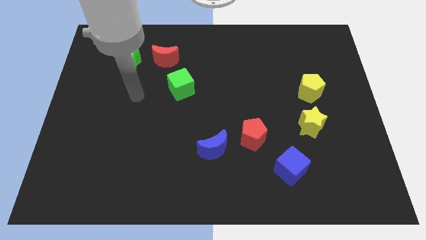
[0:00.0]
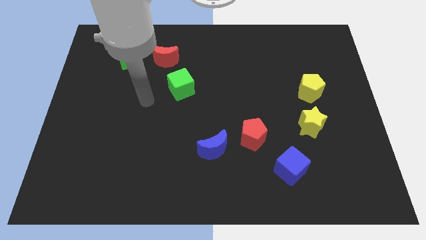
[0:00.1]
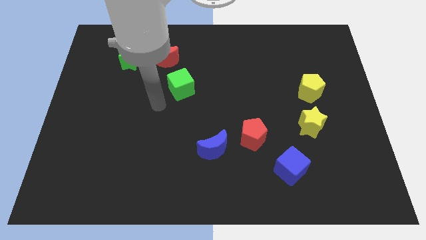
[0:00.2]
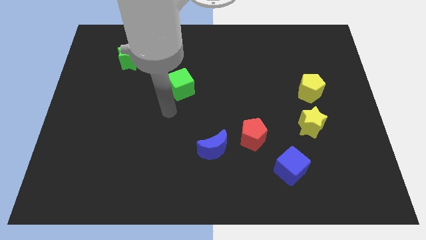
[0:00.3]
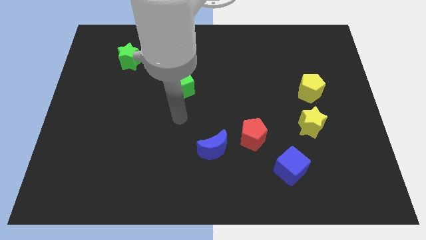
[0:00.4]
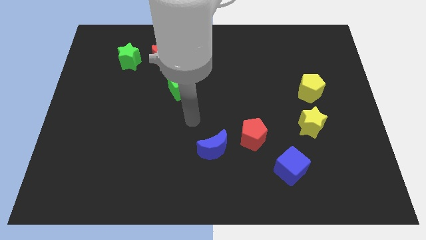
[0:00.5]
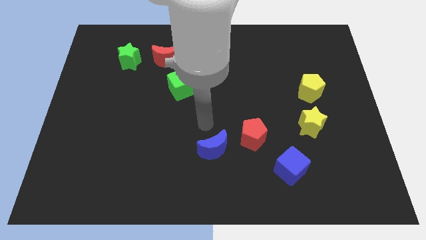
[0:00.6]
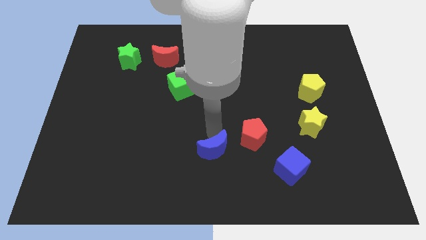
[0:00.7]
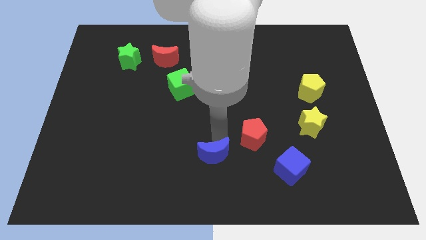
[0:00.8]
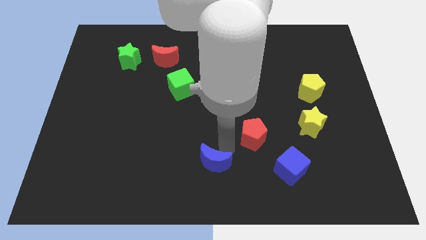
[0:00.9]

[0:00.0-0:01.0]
separate the red pentagon from the blue moon

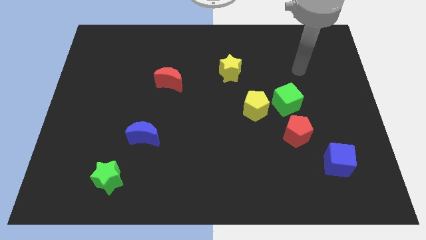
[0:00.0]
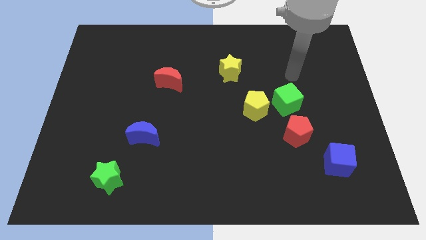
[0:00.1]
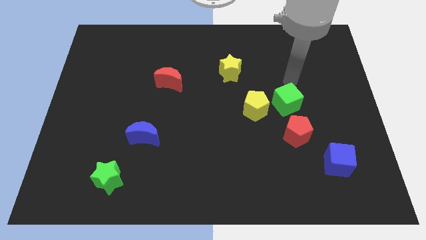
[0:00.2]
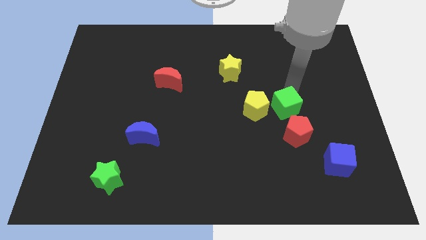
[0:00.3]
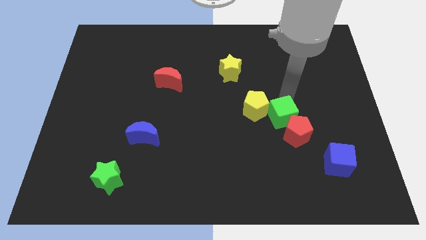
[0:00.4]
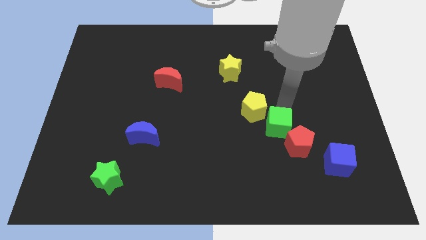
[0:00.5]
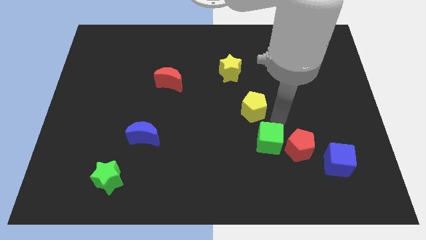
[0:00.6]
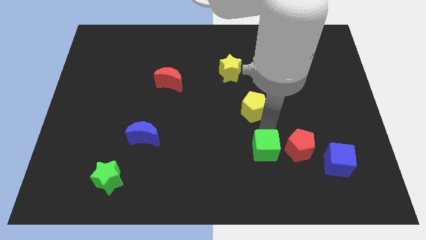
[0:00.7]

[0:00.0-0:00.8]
separate the yellow pentagon from the green cube

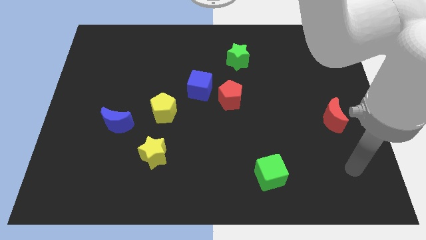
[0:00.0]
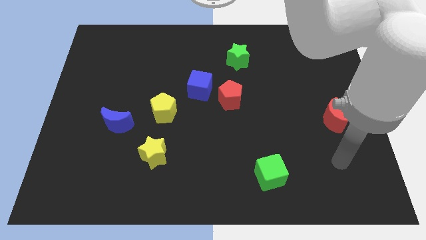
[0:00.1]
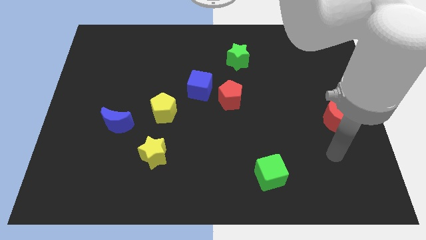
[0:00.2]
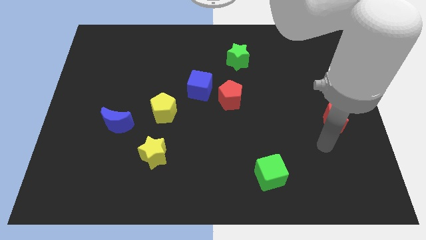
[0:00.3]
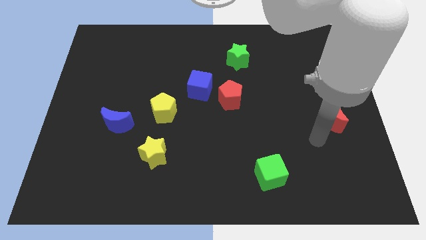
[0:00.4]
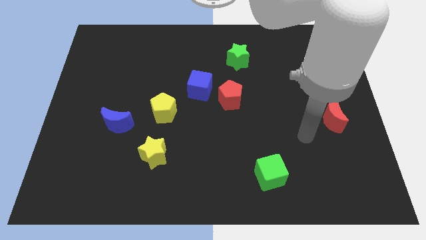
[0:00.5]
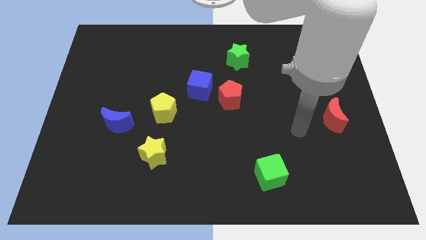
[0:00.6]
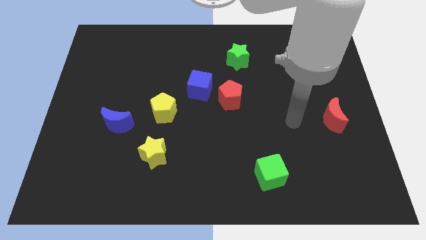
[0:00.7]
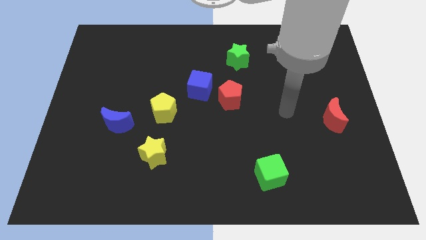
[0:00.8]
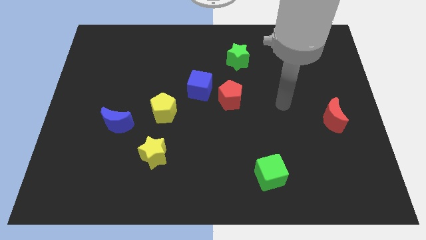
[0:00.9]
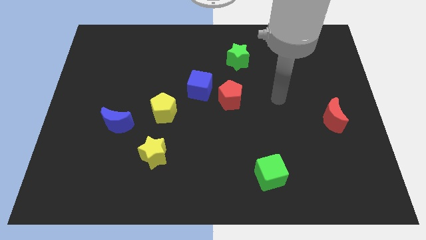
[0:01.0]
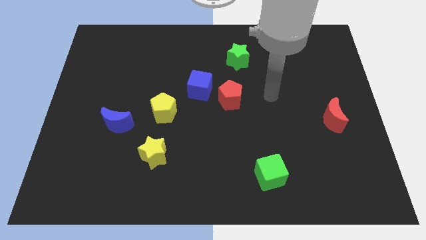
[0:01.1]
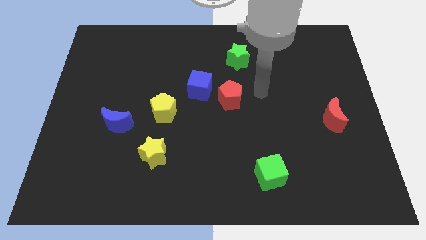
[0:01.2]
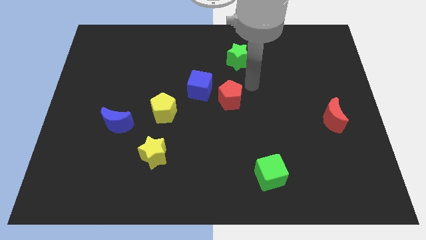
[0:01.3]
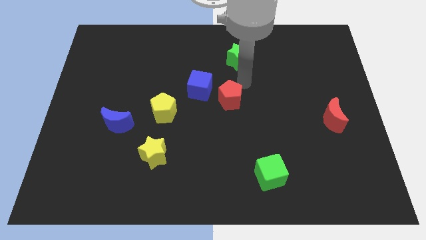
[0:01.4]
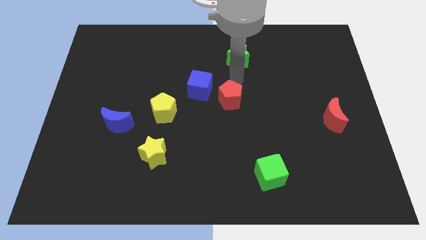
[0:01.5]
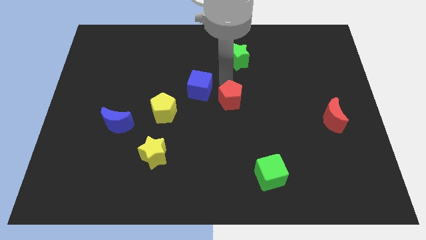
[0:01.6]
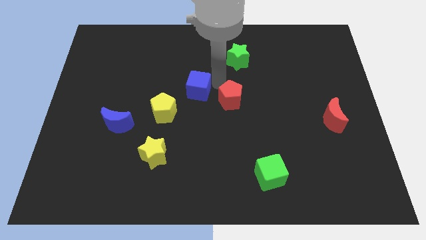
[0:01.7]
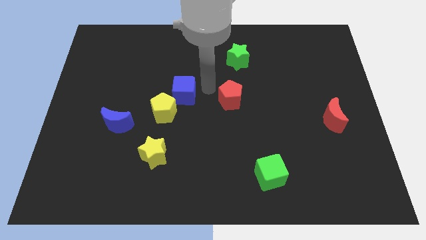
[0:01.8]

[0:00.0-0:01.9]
pull the red pentagon apart from the blue cube

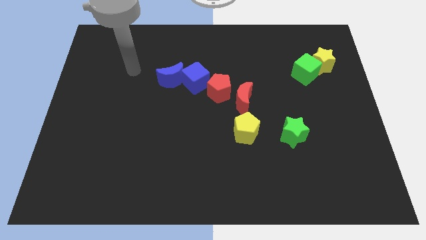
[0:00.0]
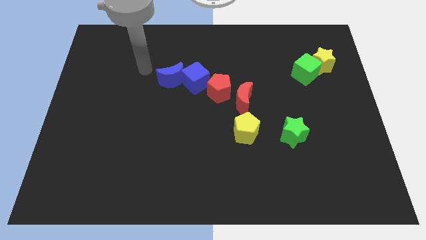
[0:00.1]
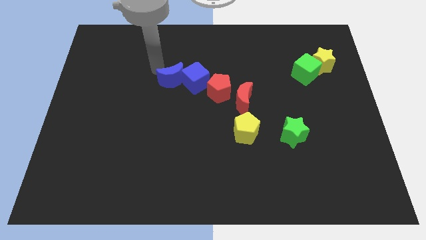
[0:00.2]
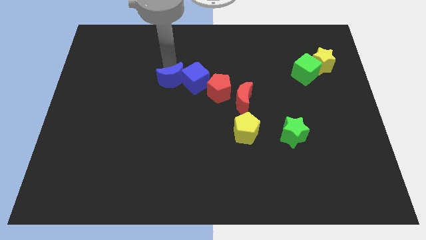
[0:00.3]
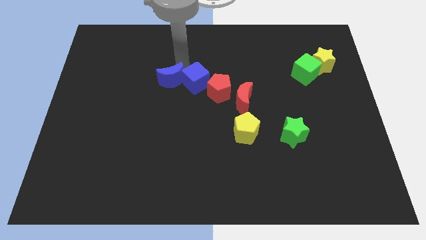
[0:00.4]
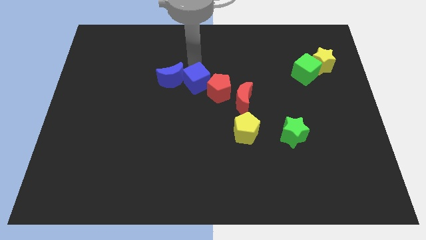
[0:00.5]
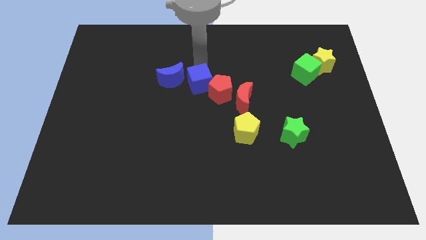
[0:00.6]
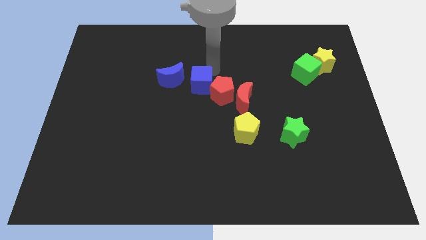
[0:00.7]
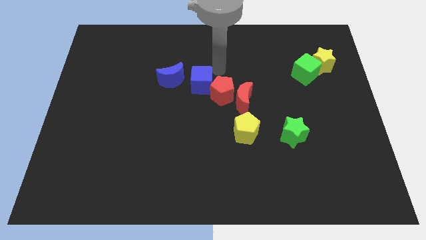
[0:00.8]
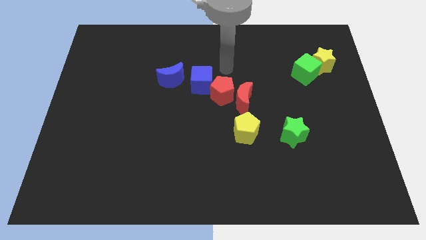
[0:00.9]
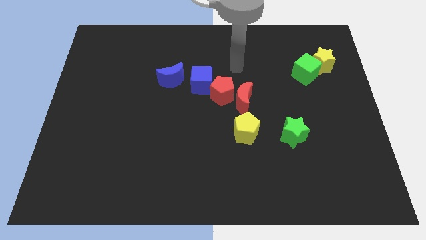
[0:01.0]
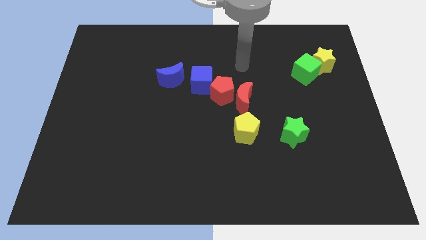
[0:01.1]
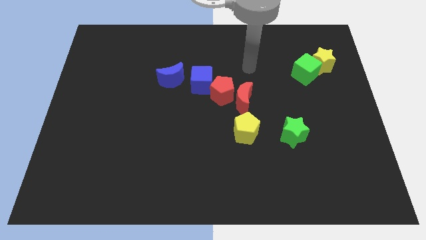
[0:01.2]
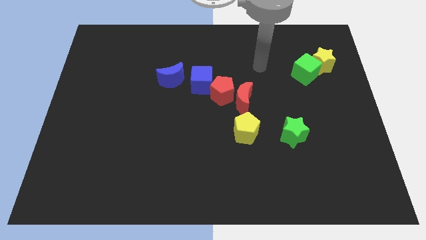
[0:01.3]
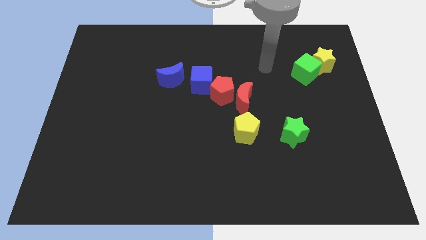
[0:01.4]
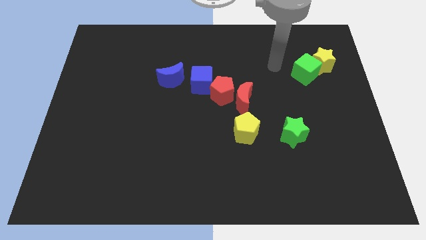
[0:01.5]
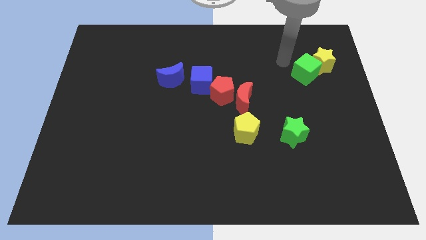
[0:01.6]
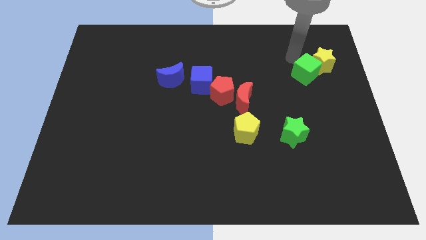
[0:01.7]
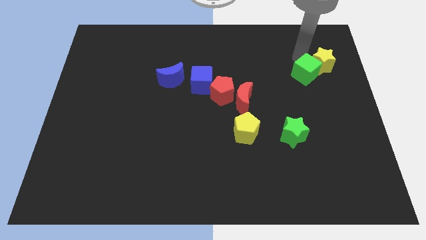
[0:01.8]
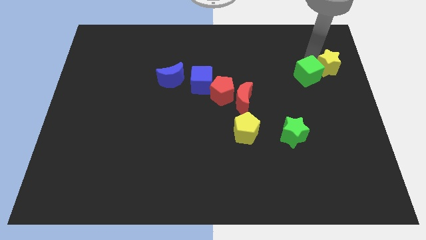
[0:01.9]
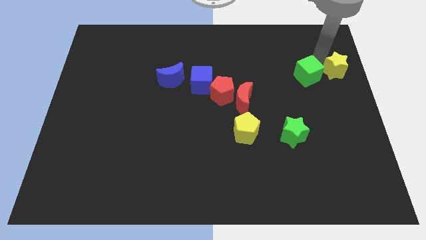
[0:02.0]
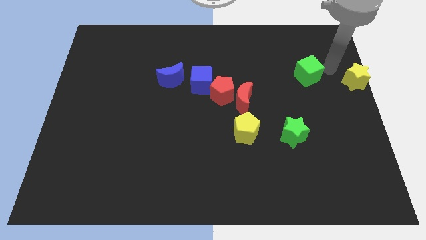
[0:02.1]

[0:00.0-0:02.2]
move the green cube away from the yellow star

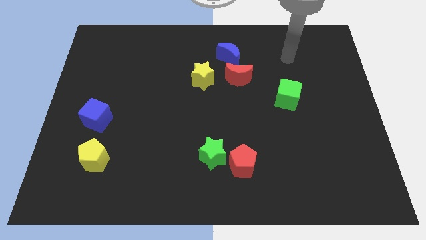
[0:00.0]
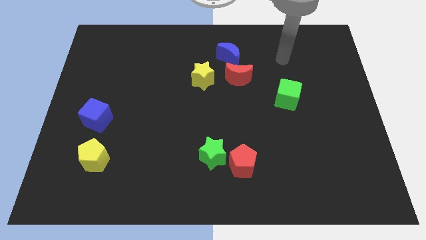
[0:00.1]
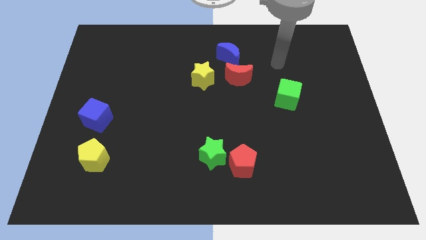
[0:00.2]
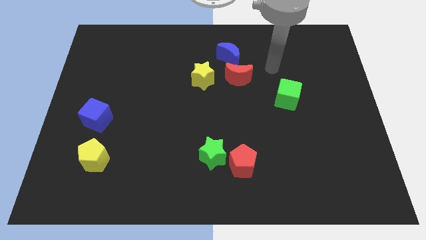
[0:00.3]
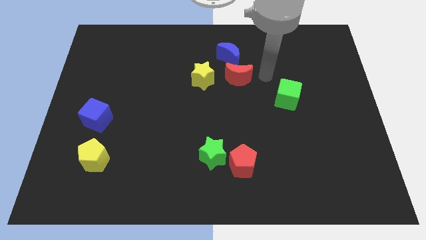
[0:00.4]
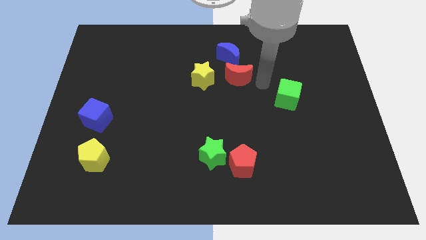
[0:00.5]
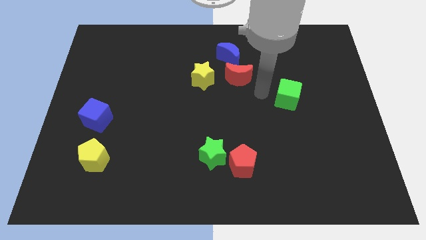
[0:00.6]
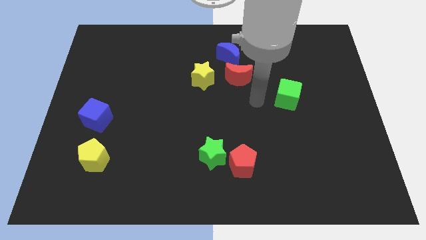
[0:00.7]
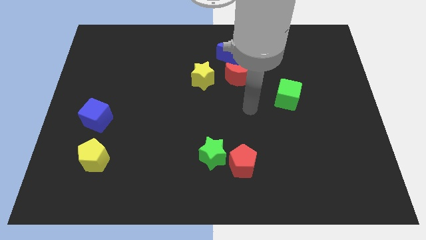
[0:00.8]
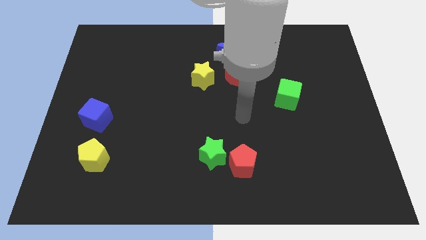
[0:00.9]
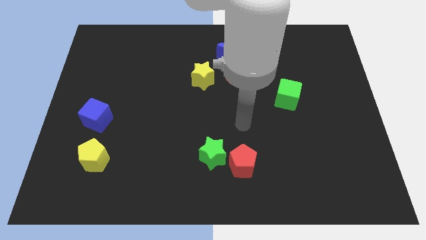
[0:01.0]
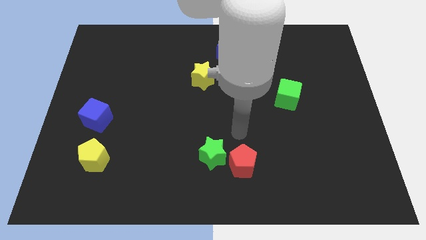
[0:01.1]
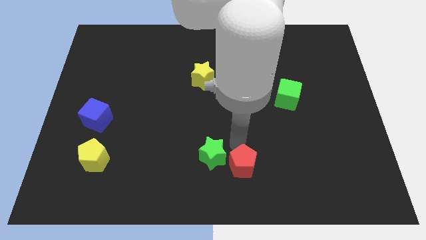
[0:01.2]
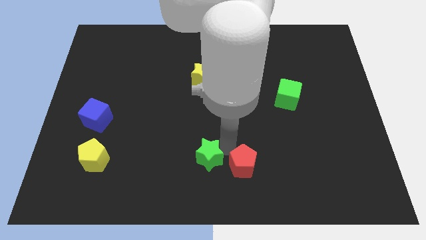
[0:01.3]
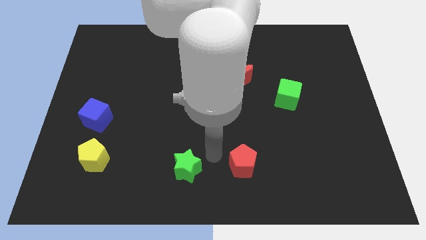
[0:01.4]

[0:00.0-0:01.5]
move the red pentagon away from the green star

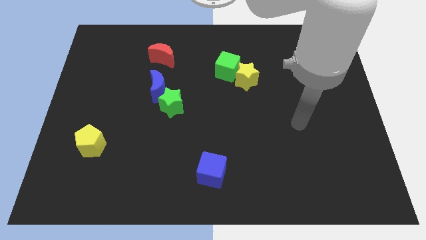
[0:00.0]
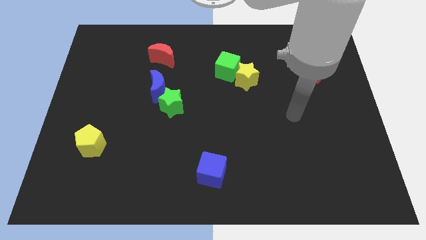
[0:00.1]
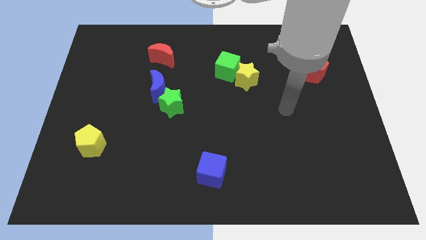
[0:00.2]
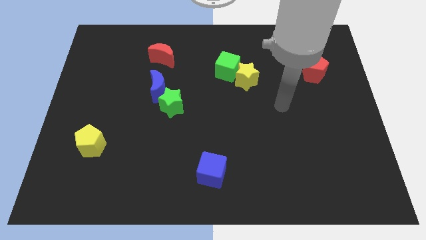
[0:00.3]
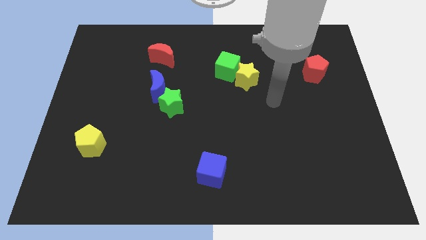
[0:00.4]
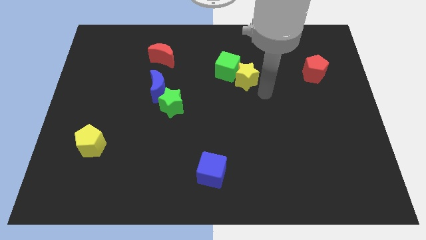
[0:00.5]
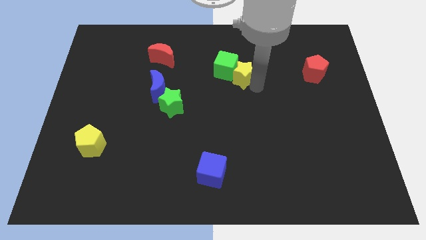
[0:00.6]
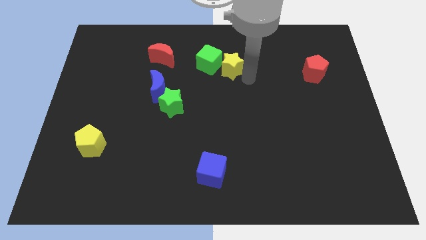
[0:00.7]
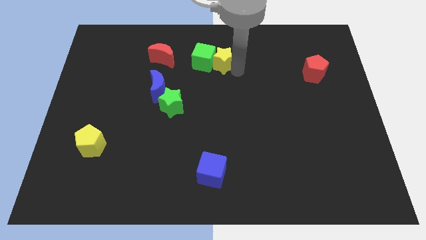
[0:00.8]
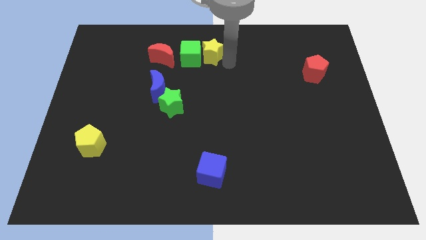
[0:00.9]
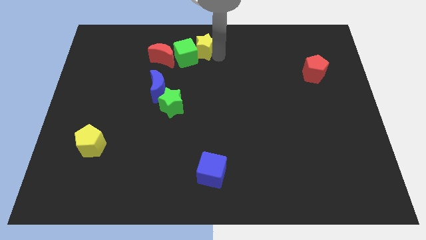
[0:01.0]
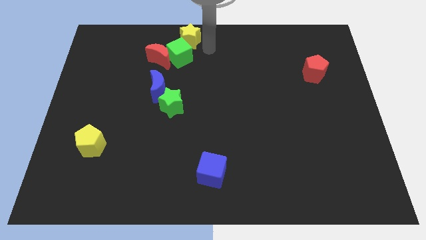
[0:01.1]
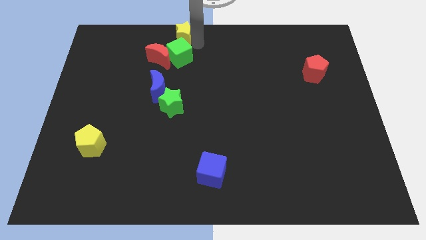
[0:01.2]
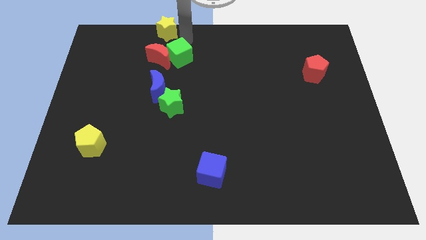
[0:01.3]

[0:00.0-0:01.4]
separate the green cube from the yellow star

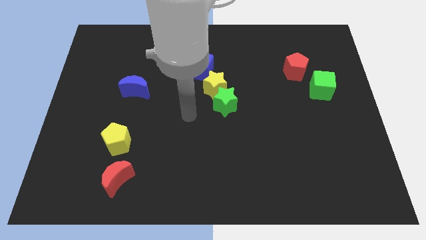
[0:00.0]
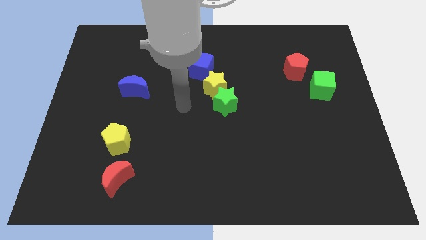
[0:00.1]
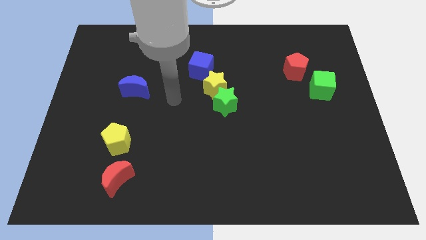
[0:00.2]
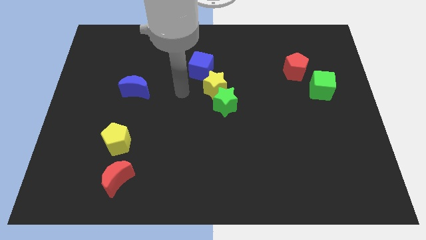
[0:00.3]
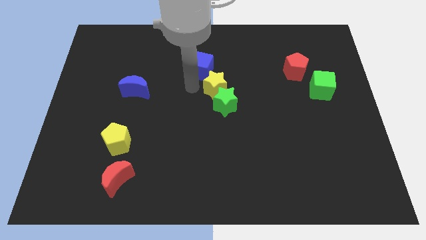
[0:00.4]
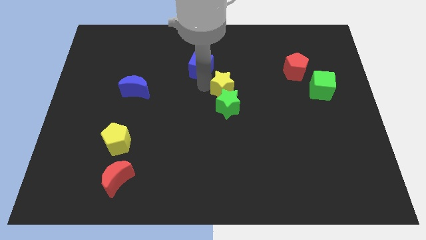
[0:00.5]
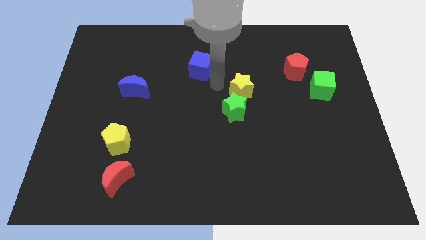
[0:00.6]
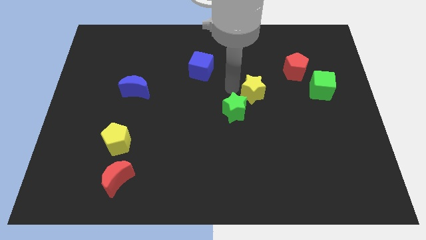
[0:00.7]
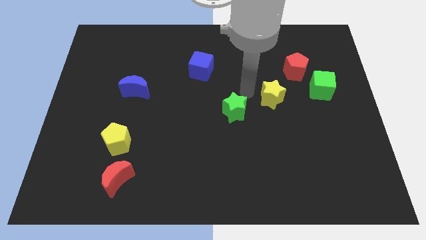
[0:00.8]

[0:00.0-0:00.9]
separate the green star from the yellow star
